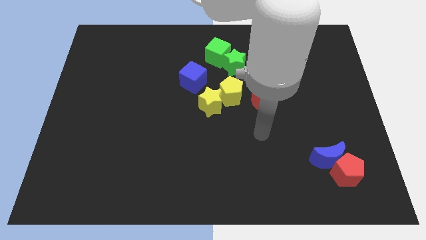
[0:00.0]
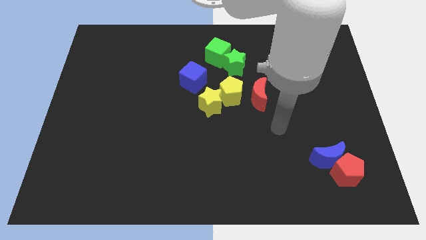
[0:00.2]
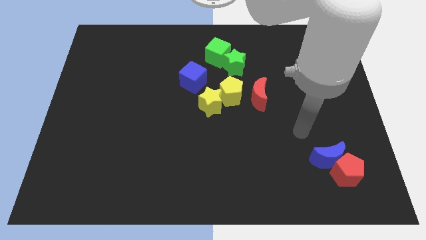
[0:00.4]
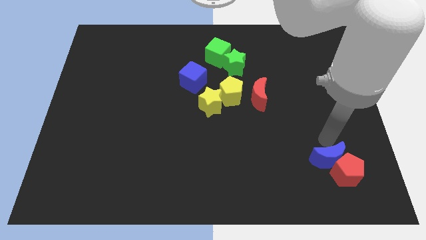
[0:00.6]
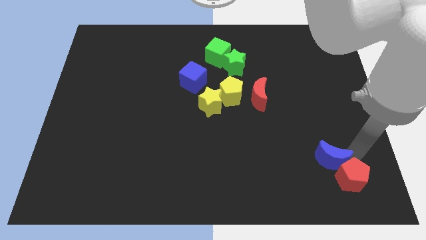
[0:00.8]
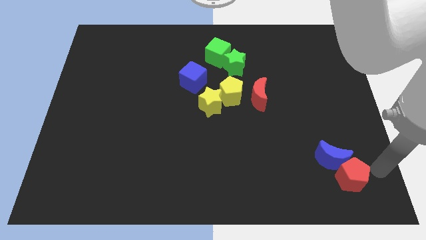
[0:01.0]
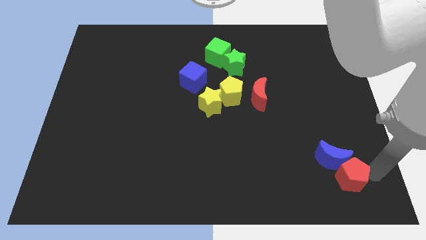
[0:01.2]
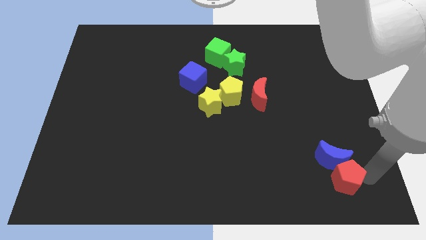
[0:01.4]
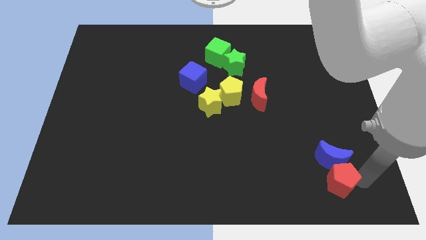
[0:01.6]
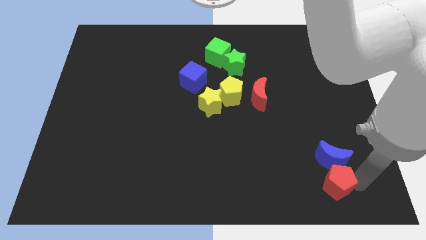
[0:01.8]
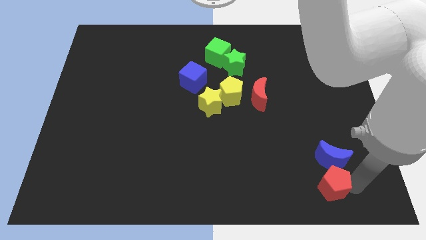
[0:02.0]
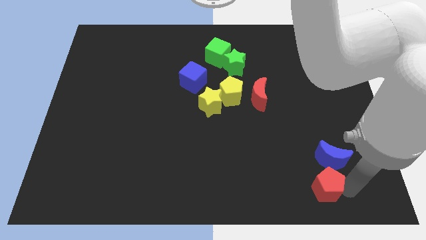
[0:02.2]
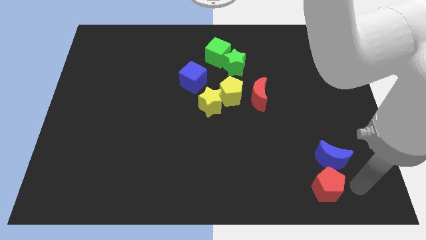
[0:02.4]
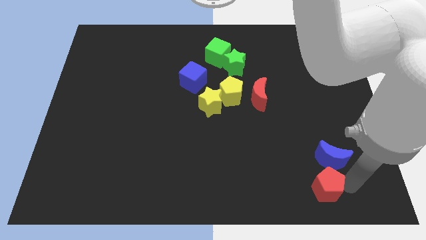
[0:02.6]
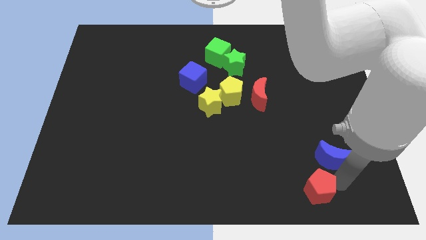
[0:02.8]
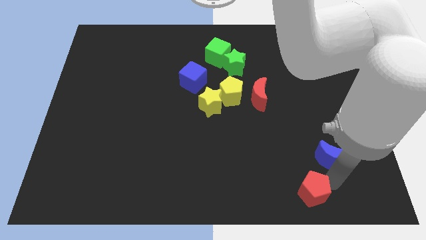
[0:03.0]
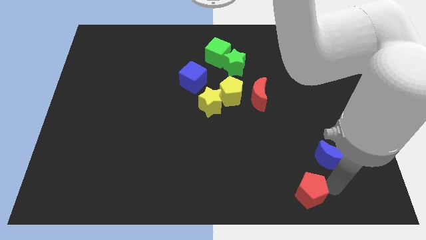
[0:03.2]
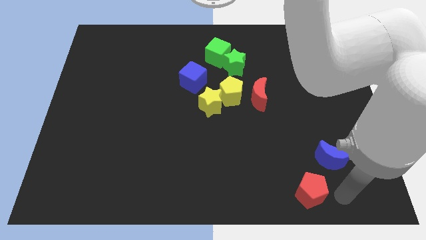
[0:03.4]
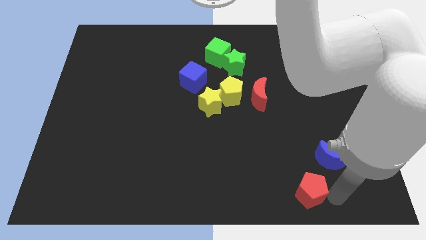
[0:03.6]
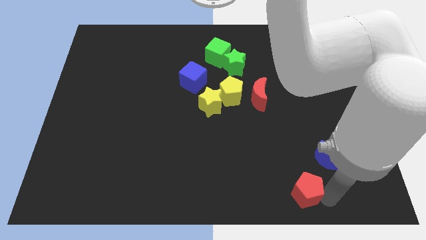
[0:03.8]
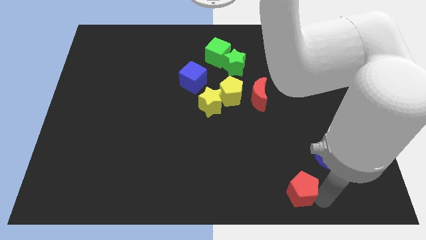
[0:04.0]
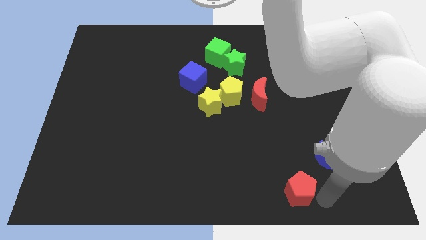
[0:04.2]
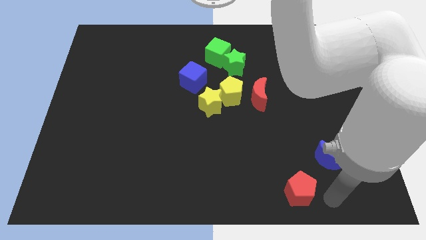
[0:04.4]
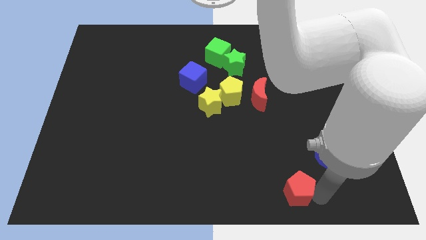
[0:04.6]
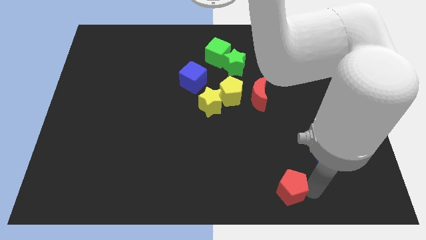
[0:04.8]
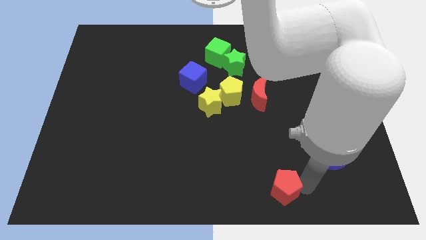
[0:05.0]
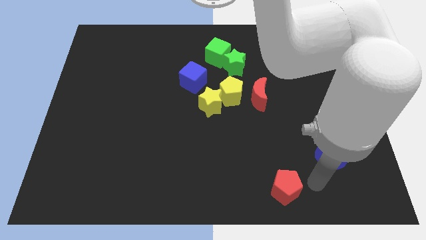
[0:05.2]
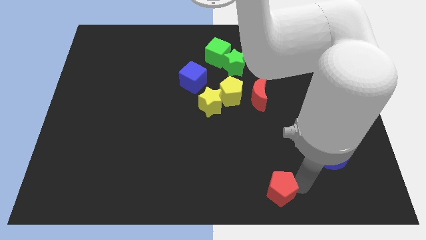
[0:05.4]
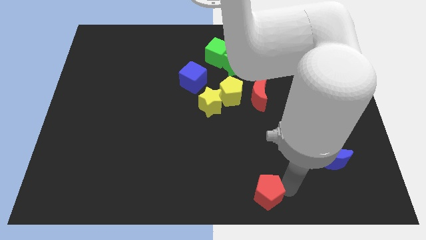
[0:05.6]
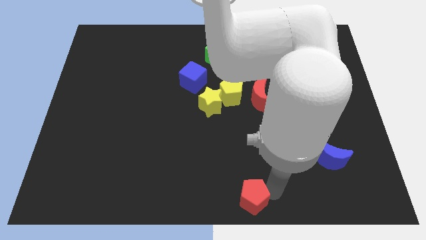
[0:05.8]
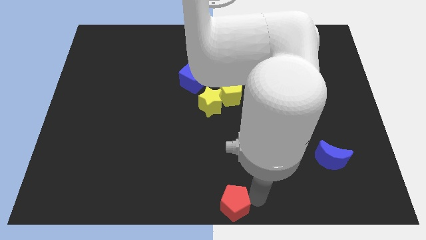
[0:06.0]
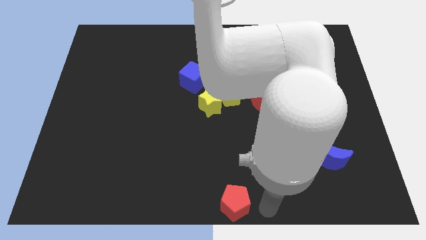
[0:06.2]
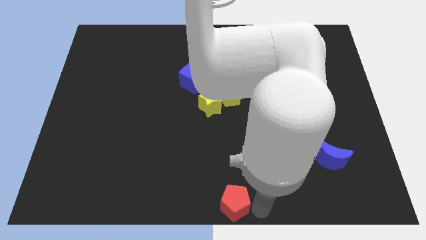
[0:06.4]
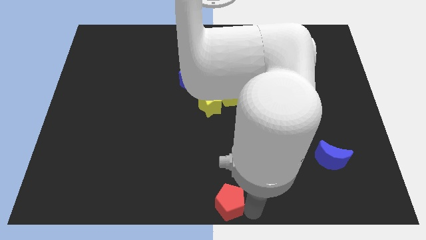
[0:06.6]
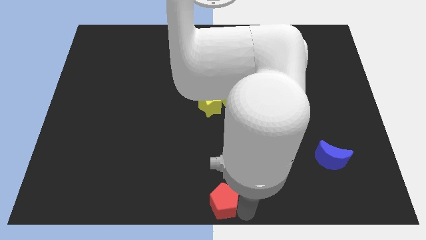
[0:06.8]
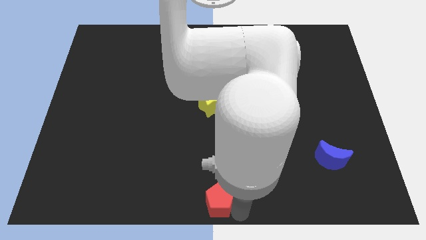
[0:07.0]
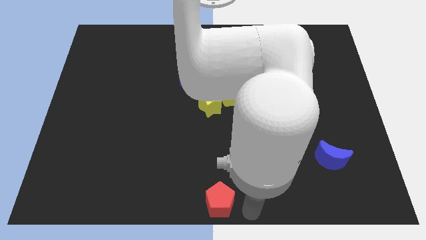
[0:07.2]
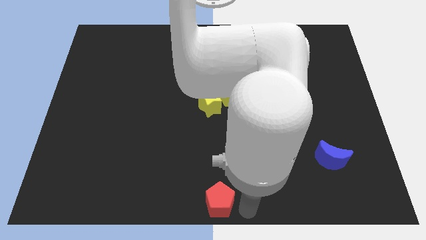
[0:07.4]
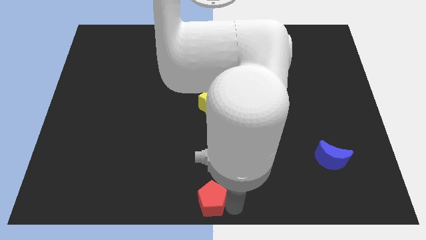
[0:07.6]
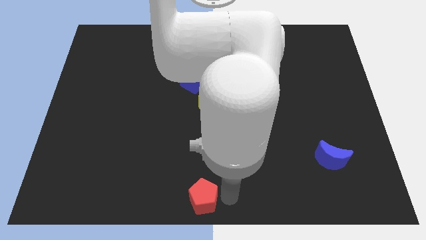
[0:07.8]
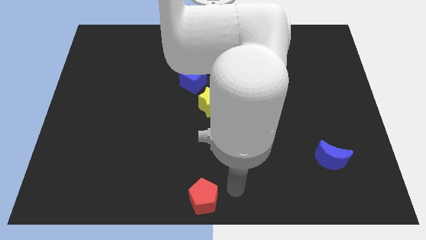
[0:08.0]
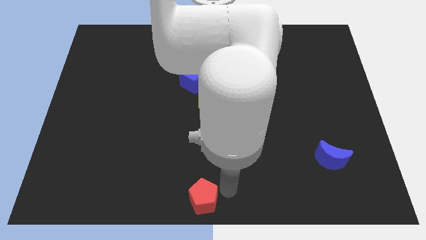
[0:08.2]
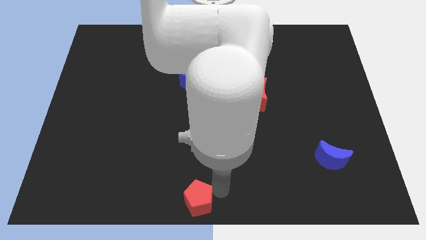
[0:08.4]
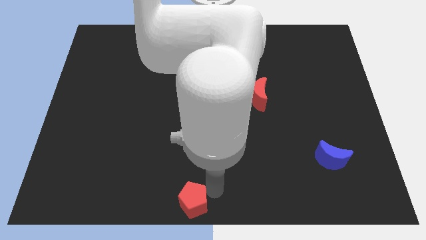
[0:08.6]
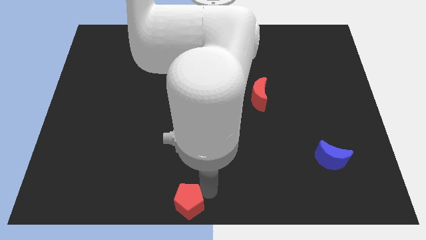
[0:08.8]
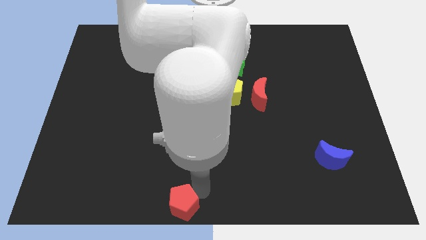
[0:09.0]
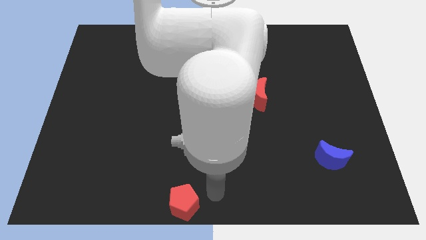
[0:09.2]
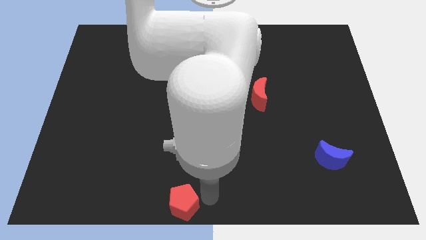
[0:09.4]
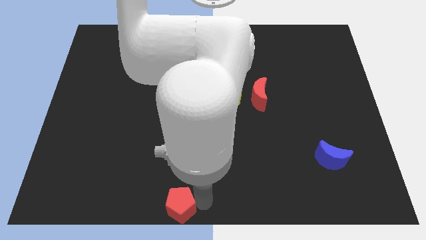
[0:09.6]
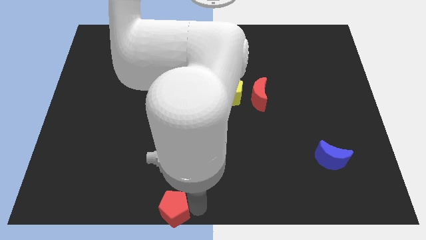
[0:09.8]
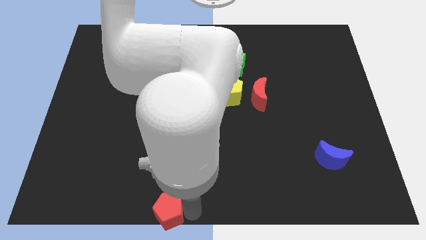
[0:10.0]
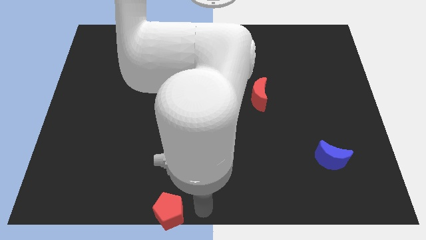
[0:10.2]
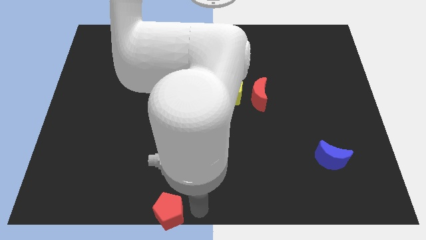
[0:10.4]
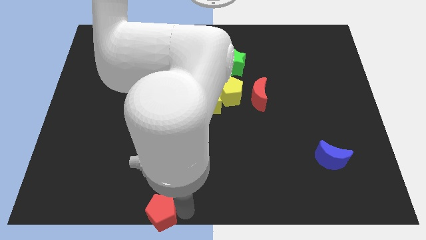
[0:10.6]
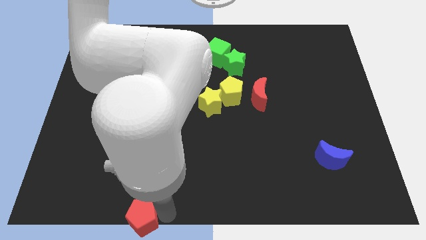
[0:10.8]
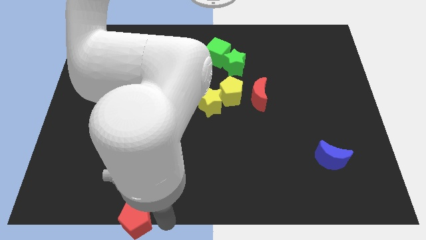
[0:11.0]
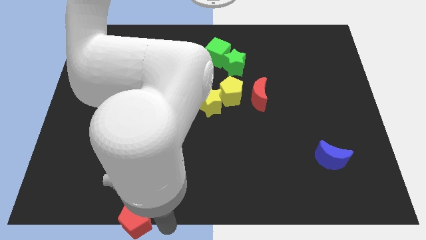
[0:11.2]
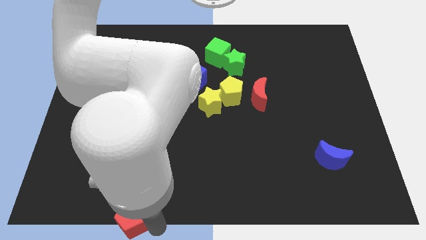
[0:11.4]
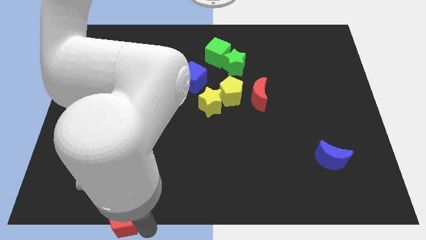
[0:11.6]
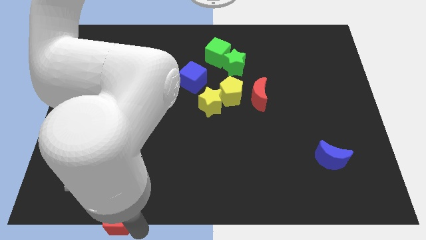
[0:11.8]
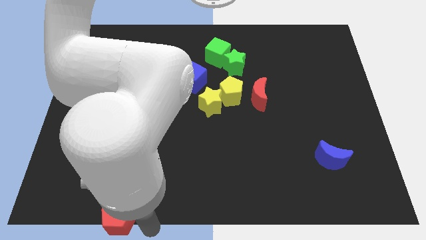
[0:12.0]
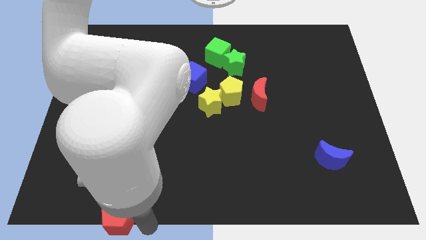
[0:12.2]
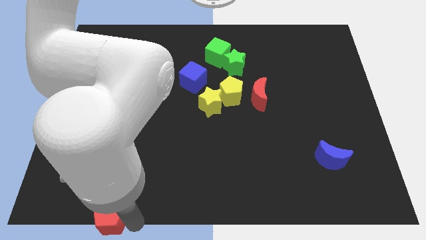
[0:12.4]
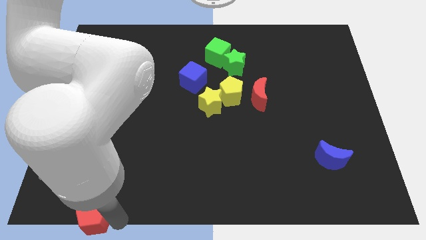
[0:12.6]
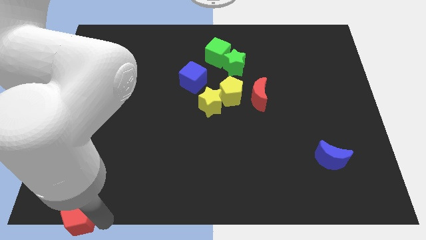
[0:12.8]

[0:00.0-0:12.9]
push the red pentagon to the bottom left of the board
